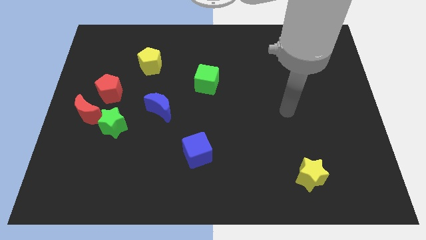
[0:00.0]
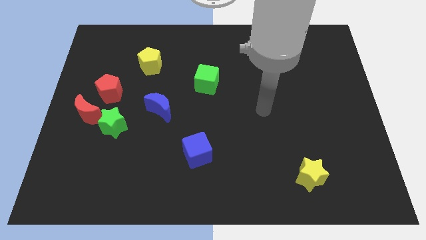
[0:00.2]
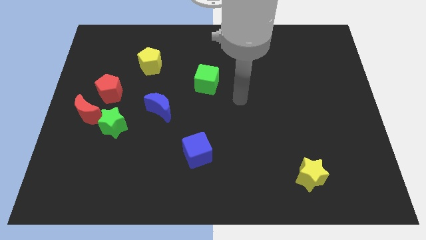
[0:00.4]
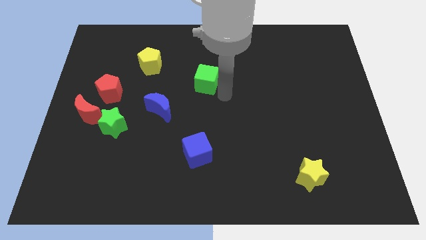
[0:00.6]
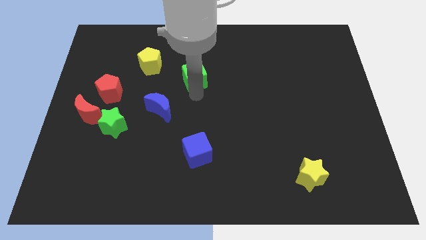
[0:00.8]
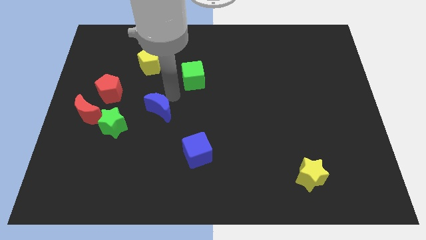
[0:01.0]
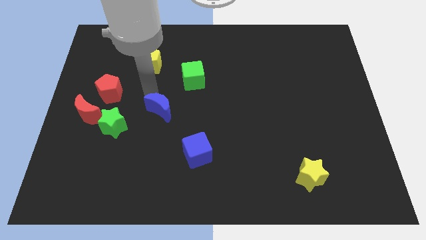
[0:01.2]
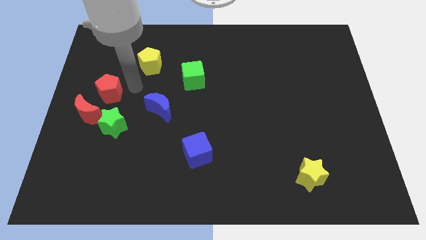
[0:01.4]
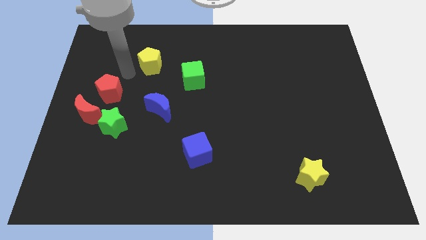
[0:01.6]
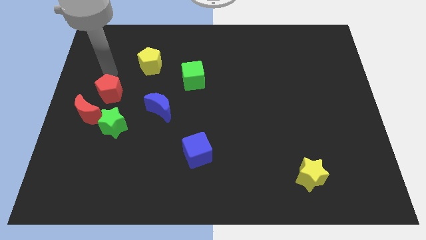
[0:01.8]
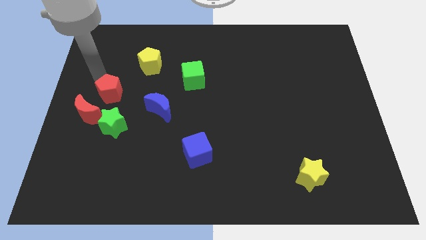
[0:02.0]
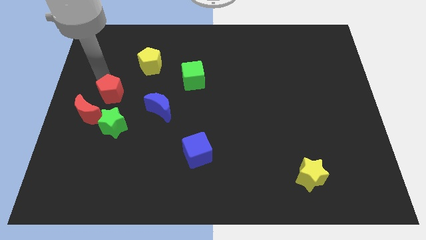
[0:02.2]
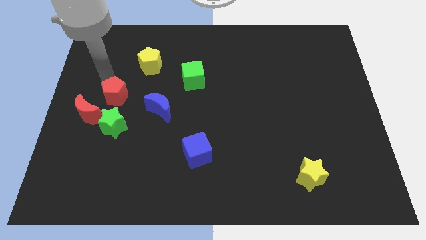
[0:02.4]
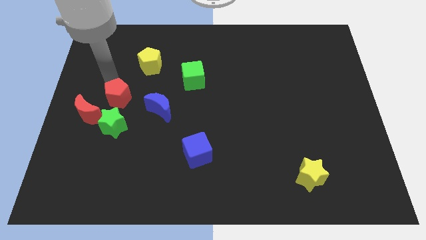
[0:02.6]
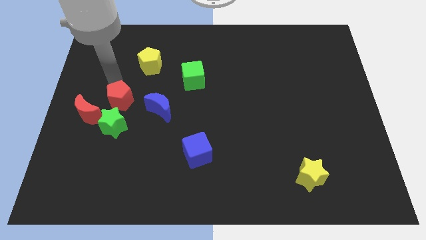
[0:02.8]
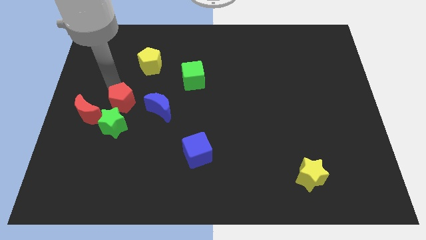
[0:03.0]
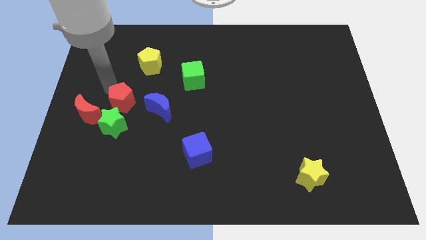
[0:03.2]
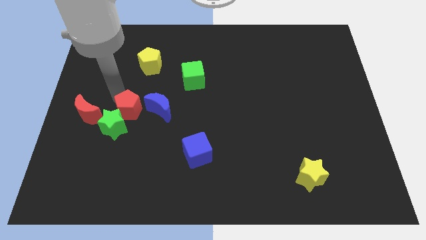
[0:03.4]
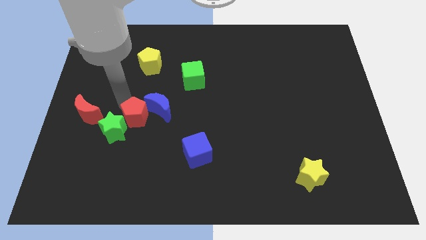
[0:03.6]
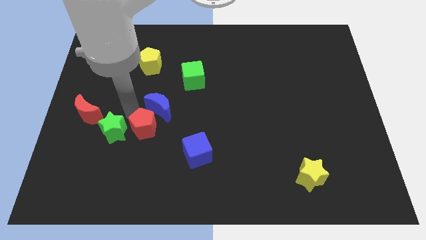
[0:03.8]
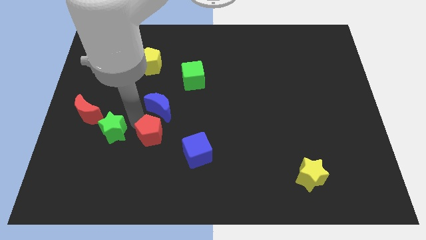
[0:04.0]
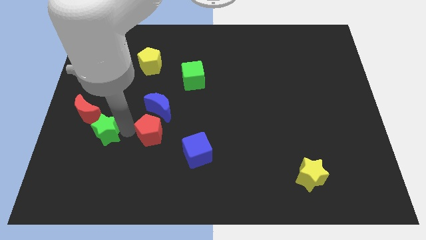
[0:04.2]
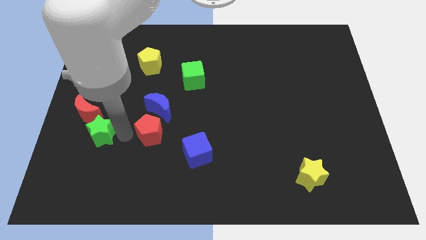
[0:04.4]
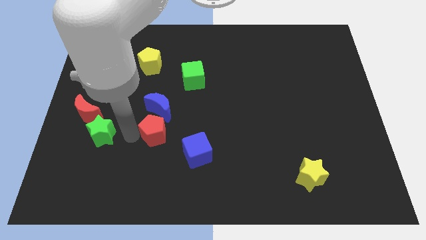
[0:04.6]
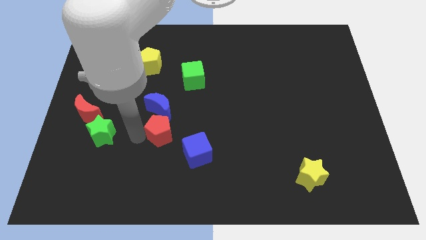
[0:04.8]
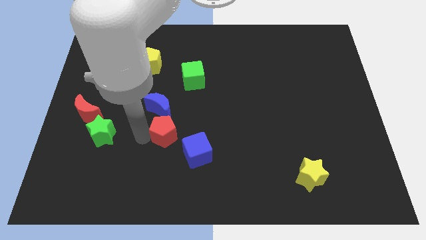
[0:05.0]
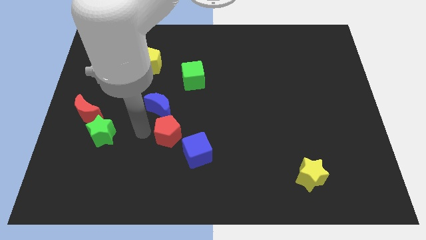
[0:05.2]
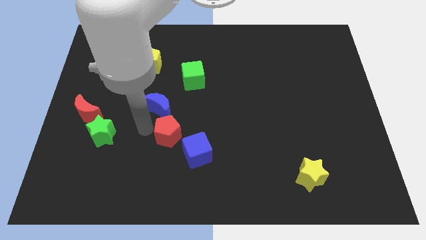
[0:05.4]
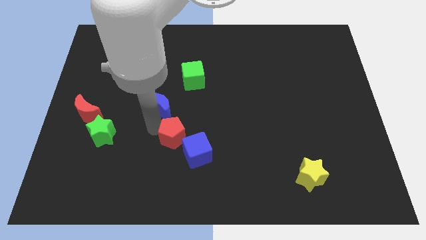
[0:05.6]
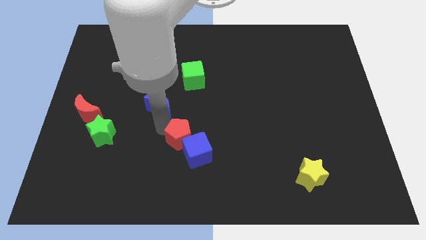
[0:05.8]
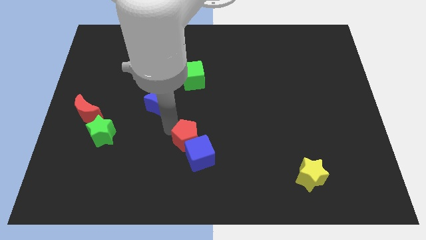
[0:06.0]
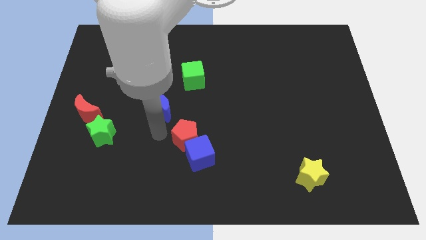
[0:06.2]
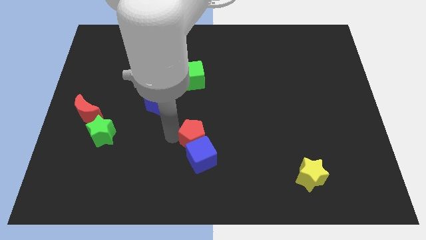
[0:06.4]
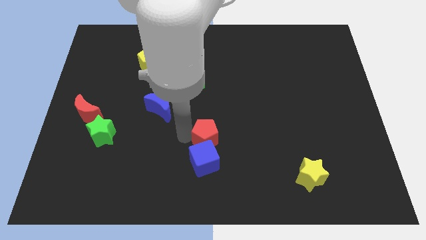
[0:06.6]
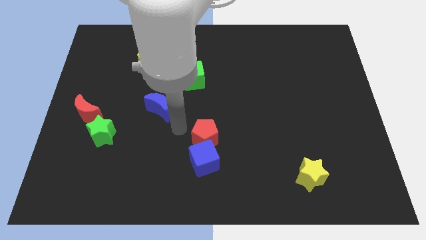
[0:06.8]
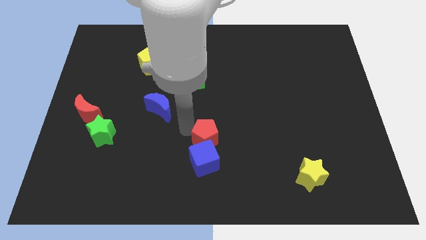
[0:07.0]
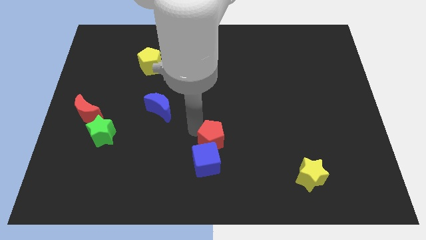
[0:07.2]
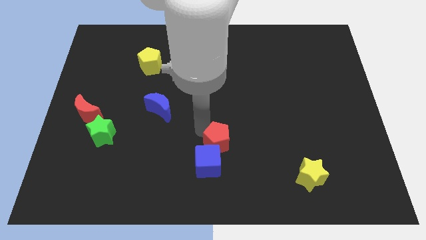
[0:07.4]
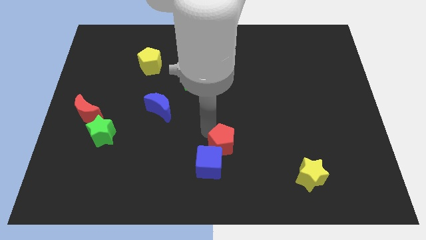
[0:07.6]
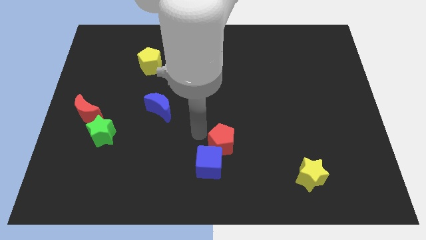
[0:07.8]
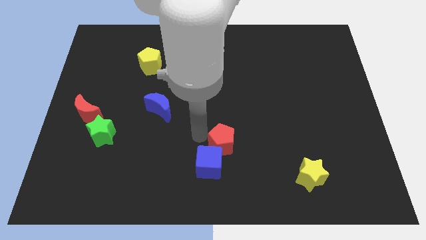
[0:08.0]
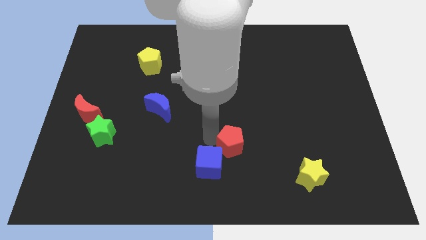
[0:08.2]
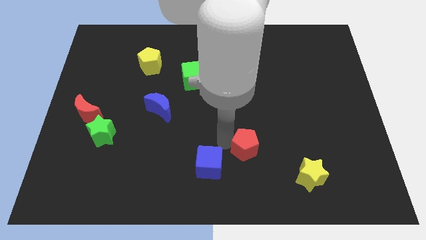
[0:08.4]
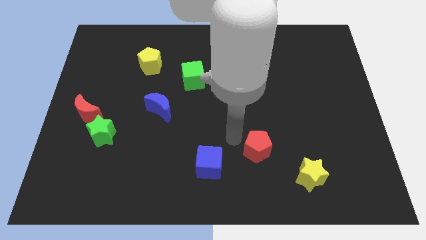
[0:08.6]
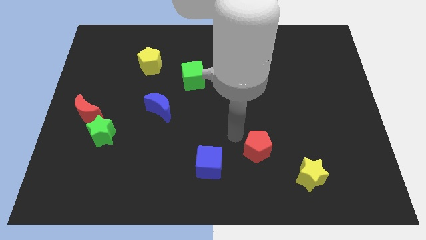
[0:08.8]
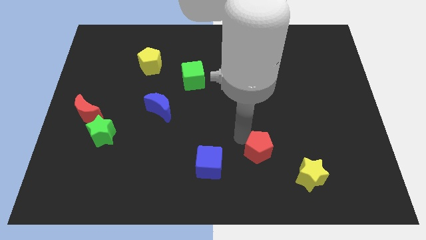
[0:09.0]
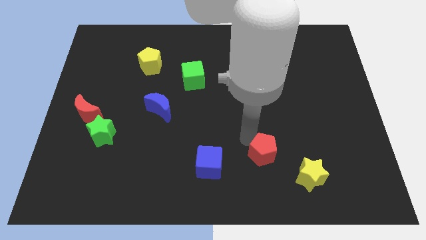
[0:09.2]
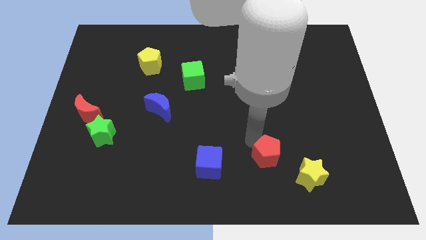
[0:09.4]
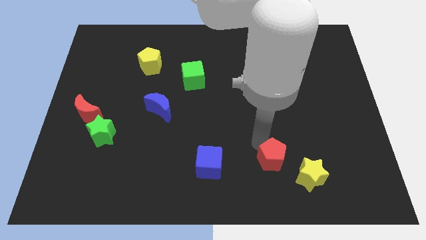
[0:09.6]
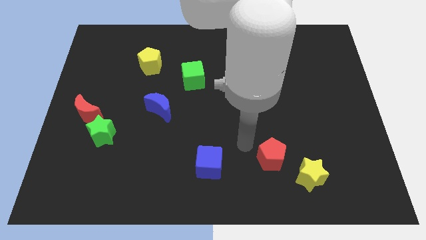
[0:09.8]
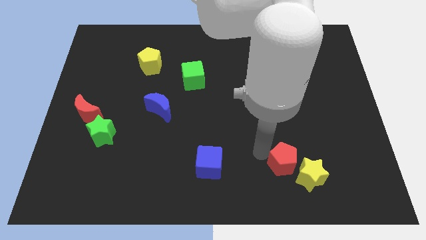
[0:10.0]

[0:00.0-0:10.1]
move the red pentagon close to the yellow star

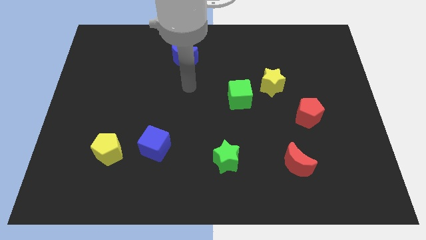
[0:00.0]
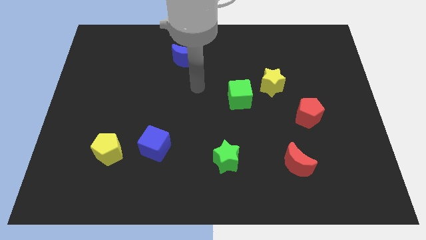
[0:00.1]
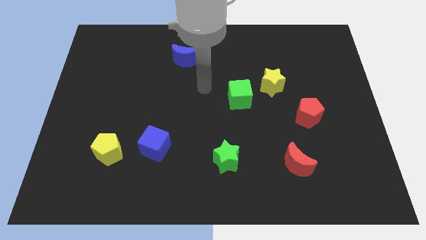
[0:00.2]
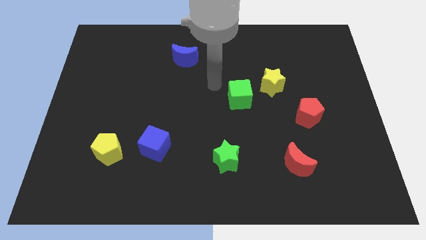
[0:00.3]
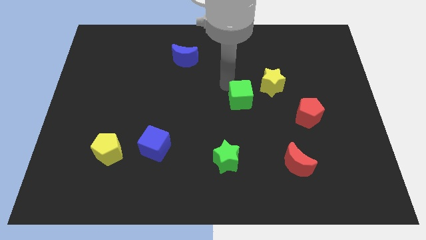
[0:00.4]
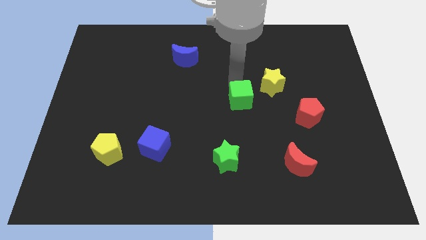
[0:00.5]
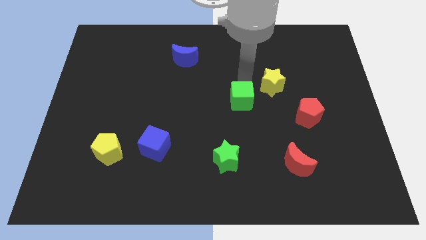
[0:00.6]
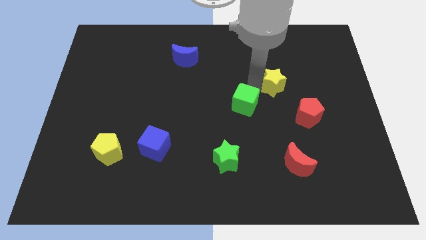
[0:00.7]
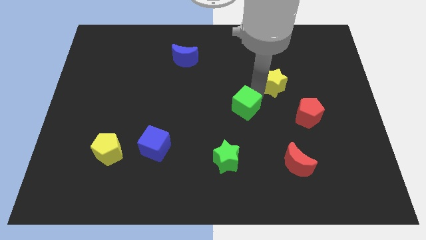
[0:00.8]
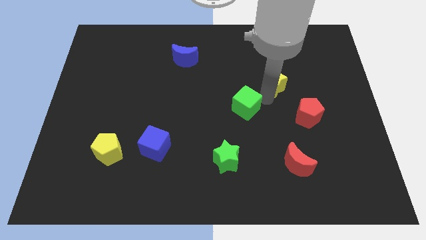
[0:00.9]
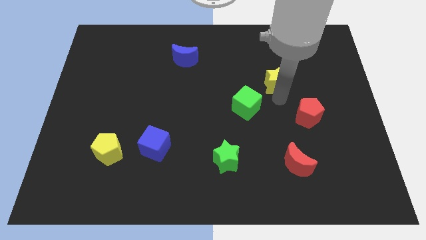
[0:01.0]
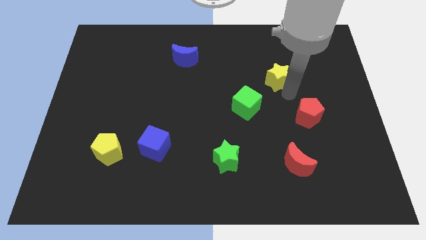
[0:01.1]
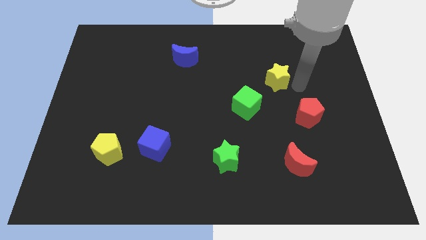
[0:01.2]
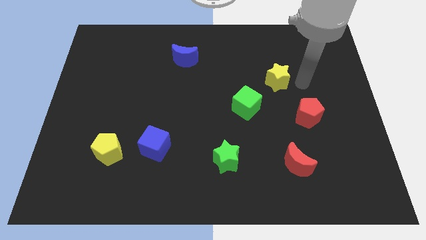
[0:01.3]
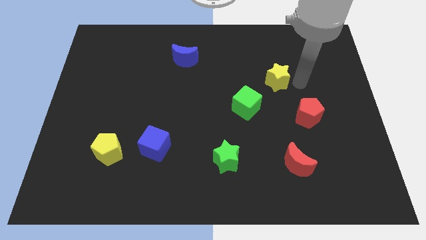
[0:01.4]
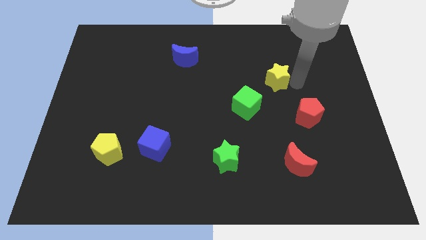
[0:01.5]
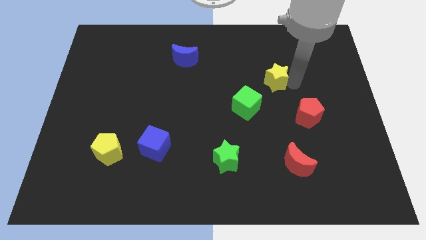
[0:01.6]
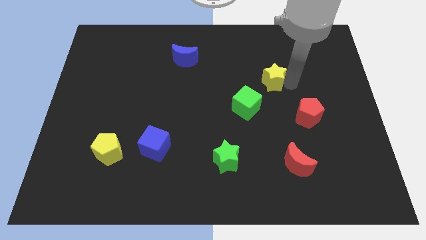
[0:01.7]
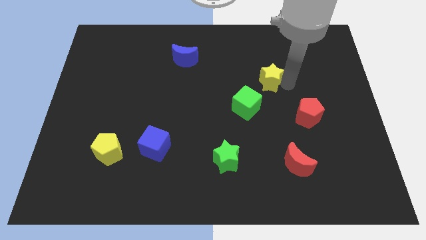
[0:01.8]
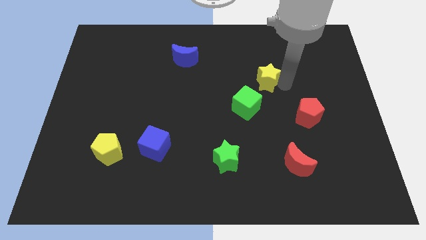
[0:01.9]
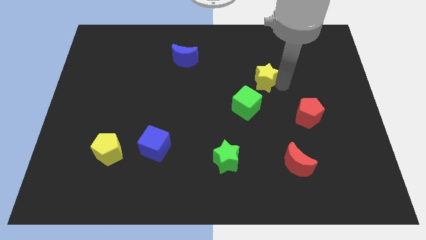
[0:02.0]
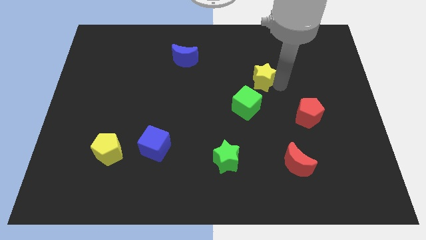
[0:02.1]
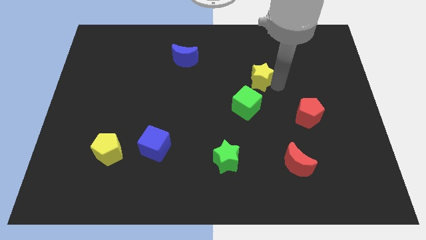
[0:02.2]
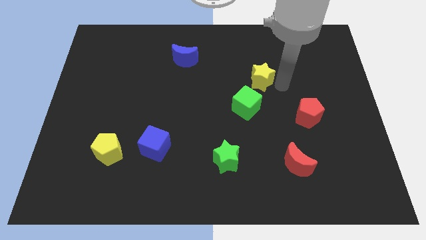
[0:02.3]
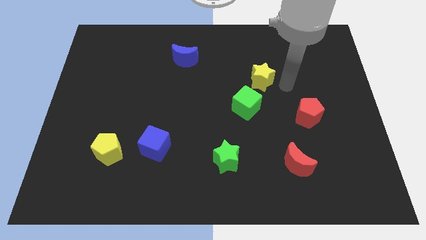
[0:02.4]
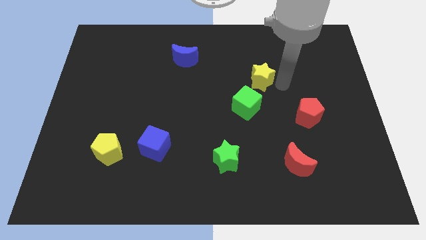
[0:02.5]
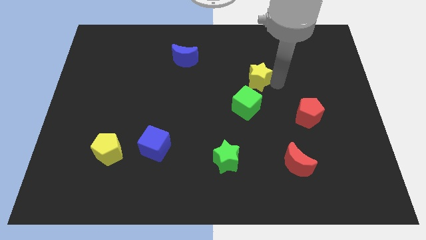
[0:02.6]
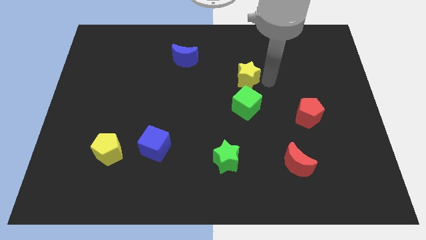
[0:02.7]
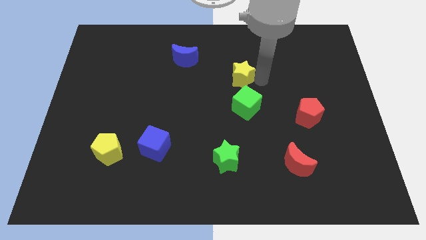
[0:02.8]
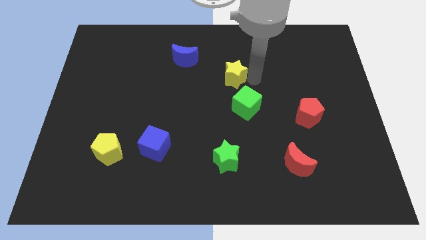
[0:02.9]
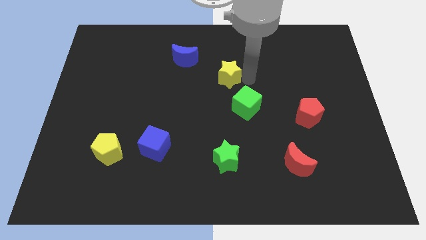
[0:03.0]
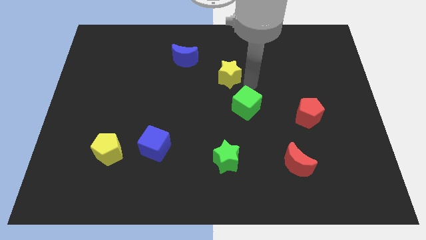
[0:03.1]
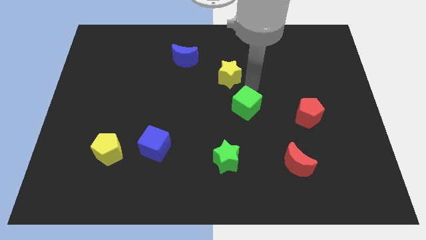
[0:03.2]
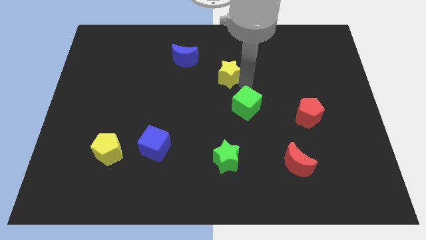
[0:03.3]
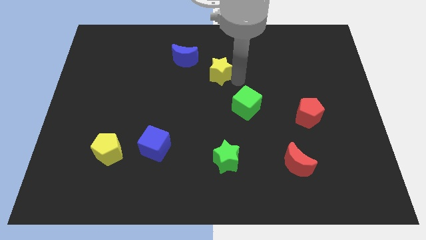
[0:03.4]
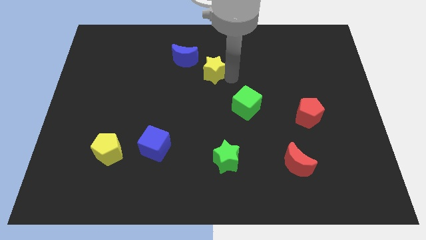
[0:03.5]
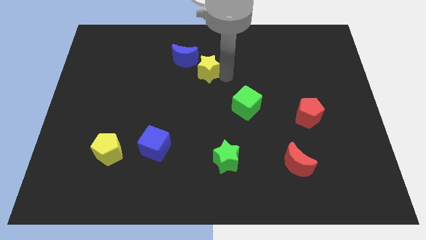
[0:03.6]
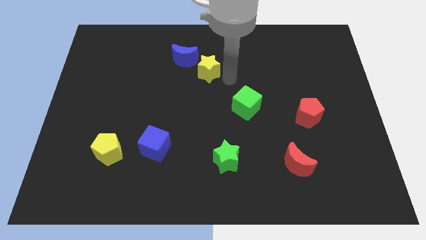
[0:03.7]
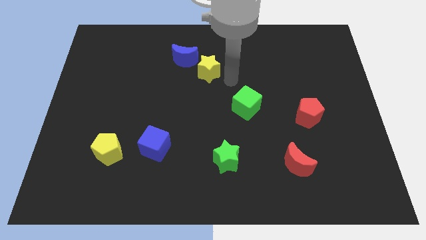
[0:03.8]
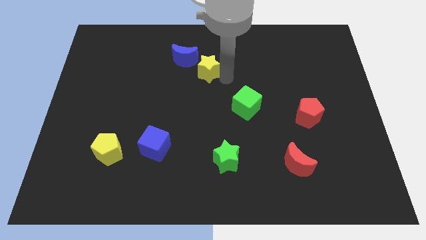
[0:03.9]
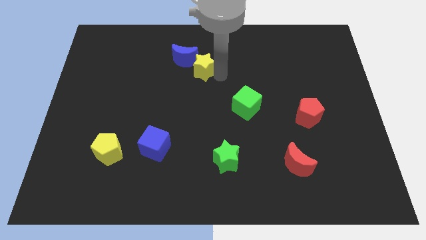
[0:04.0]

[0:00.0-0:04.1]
put the yellow star towards the blue moon
